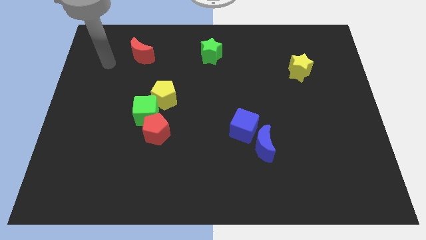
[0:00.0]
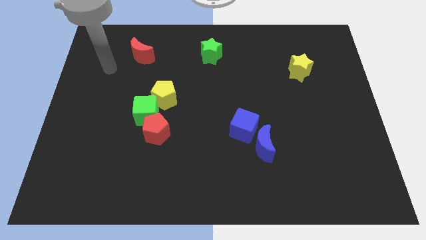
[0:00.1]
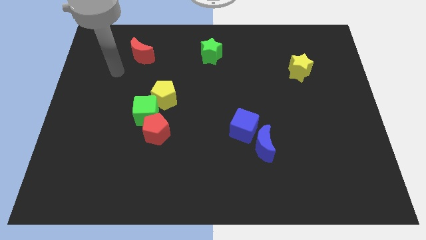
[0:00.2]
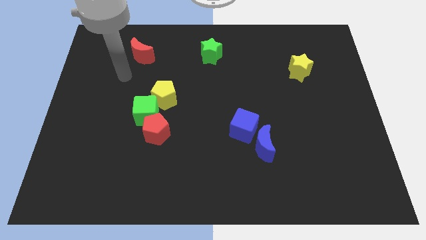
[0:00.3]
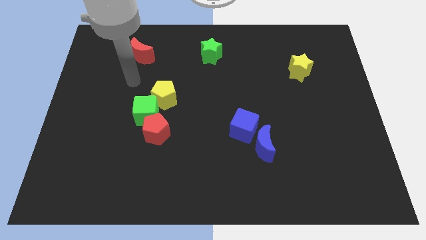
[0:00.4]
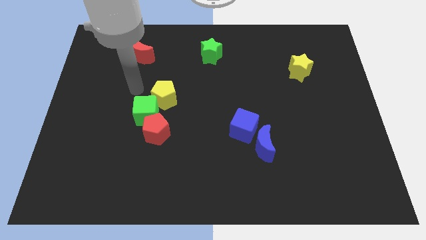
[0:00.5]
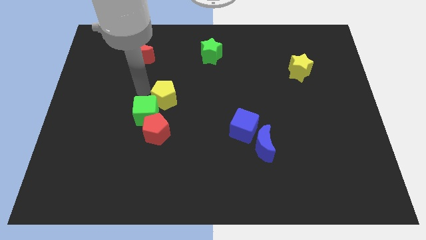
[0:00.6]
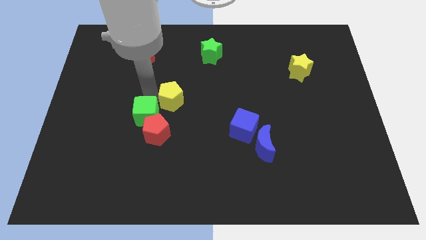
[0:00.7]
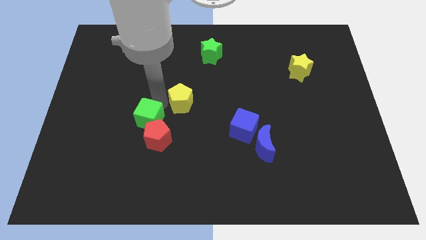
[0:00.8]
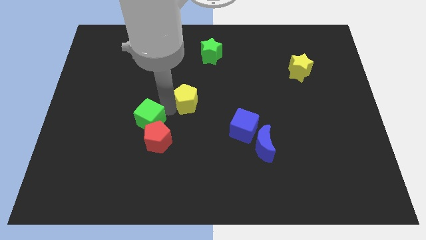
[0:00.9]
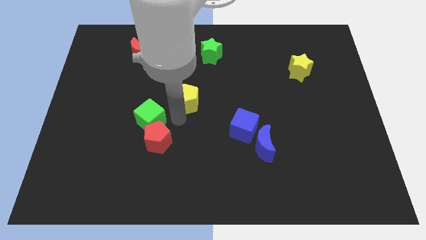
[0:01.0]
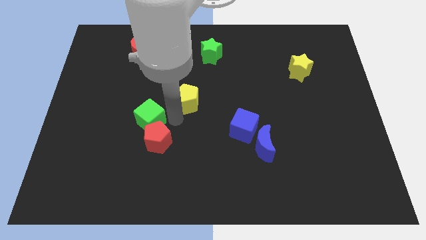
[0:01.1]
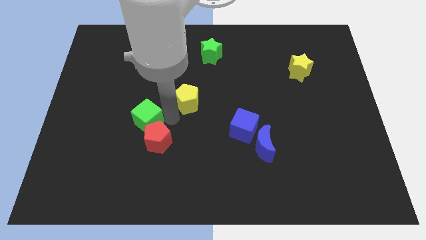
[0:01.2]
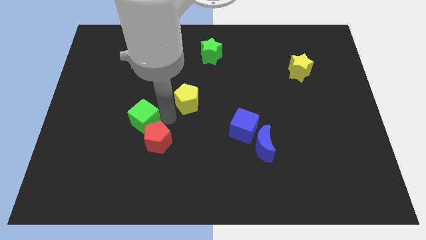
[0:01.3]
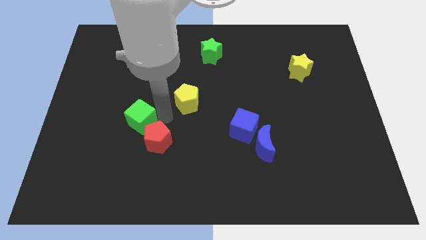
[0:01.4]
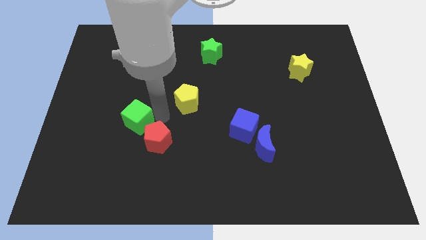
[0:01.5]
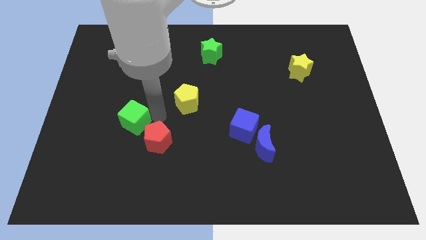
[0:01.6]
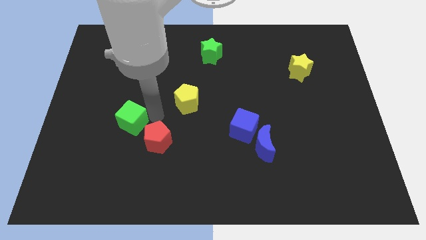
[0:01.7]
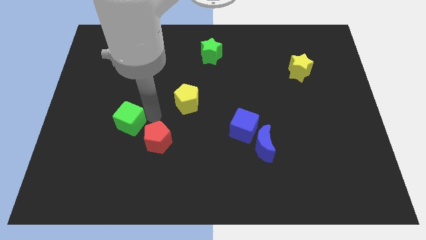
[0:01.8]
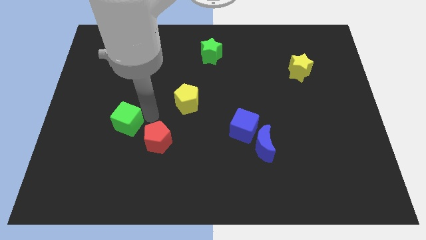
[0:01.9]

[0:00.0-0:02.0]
separate the green cube from the red pentagon and yellow pentagon

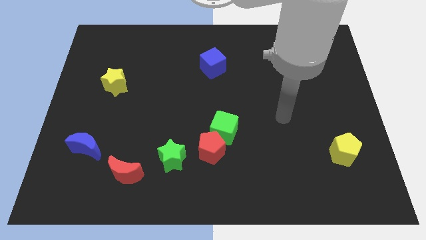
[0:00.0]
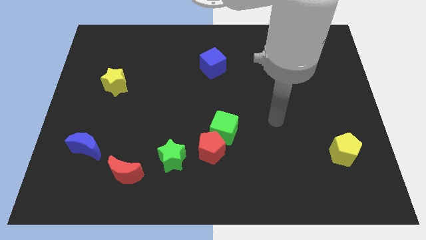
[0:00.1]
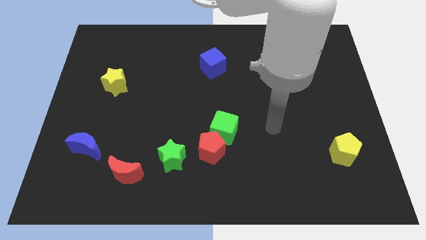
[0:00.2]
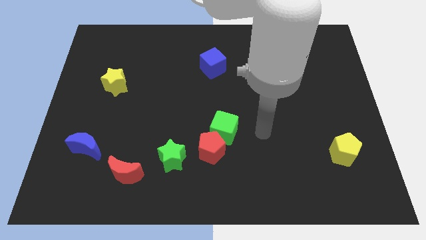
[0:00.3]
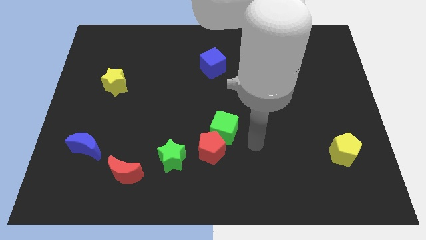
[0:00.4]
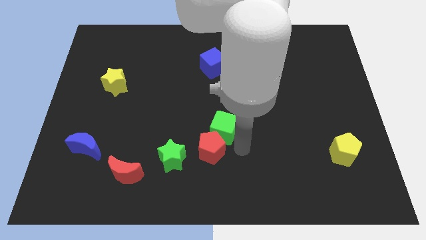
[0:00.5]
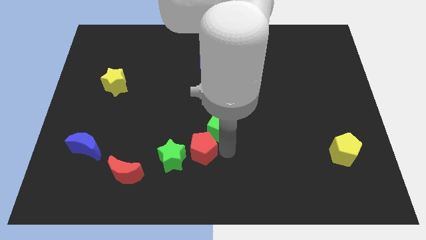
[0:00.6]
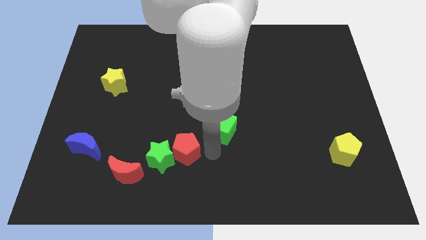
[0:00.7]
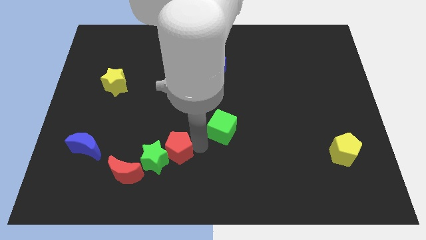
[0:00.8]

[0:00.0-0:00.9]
pull the green cube apart from the red pentagon

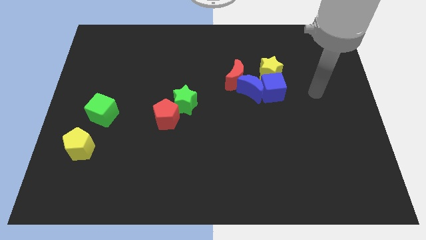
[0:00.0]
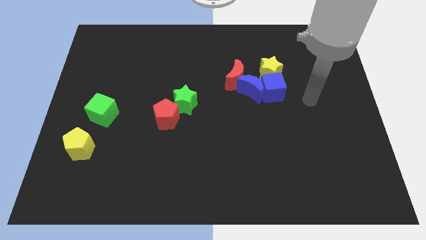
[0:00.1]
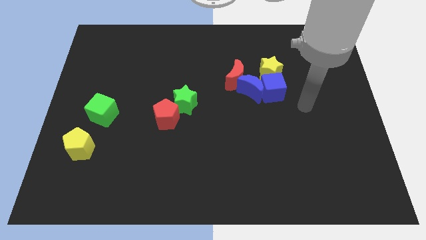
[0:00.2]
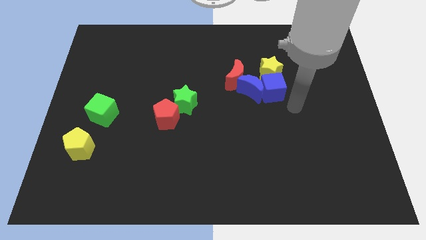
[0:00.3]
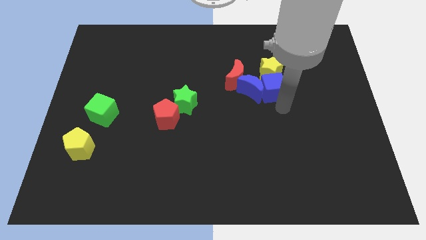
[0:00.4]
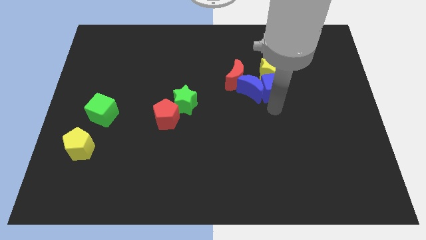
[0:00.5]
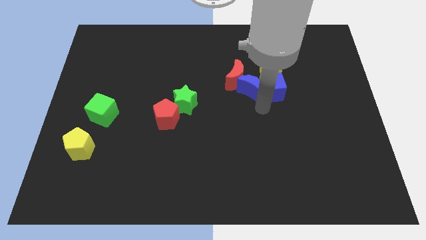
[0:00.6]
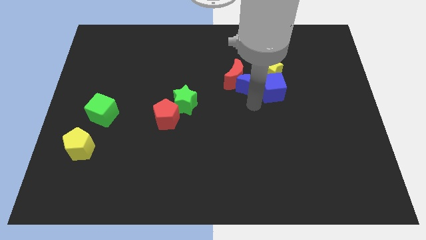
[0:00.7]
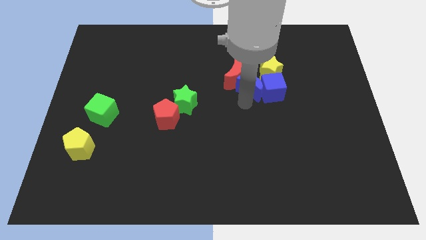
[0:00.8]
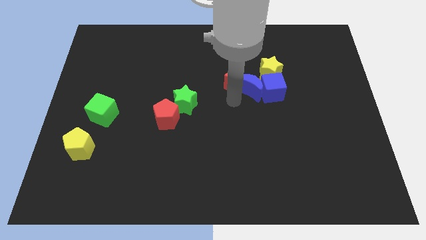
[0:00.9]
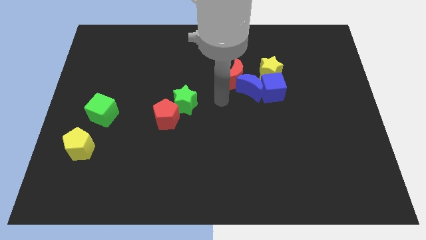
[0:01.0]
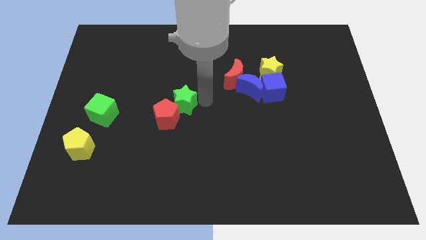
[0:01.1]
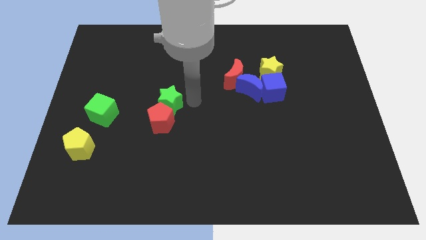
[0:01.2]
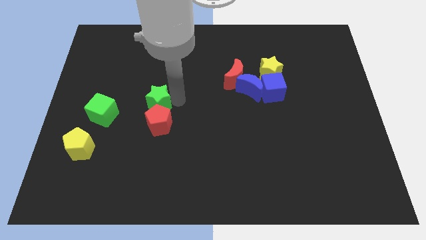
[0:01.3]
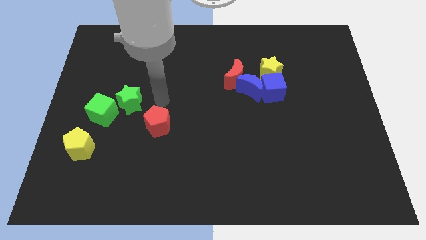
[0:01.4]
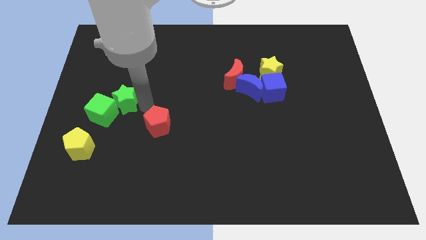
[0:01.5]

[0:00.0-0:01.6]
pull the red pentagon apart from the green star

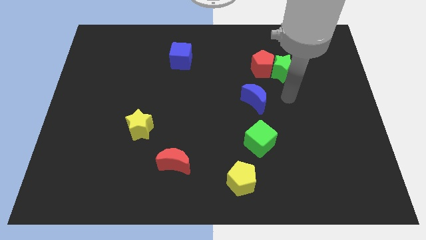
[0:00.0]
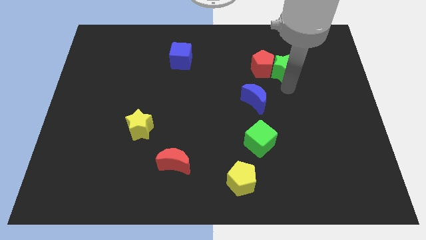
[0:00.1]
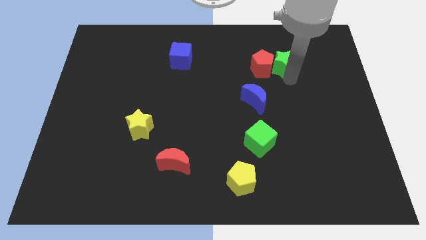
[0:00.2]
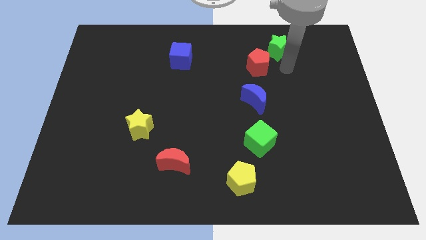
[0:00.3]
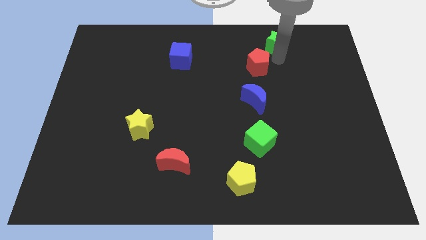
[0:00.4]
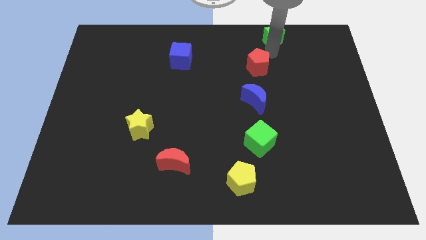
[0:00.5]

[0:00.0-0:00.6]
separate the red pentagon from the green star

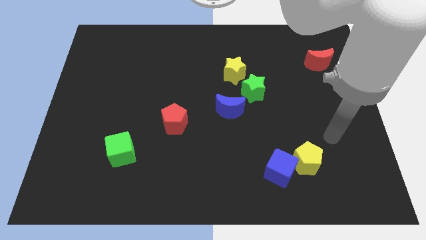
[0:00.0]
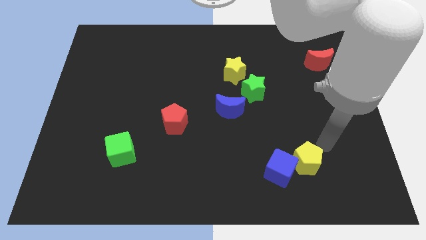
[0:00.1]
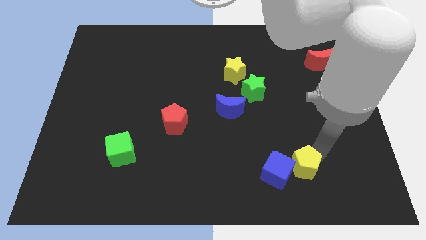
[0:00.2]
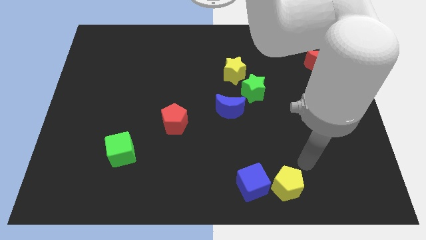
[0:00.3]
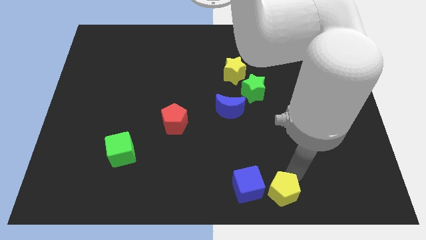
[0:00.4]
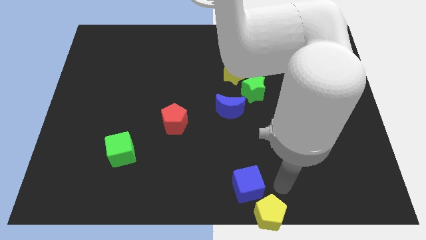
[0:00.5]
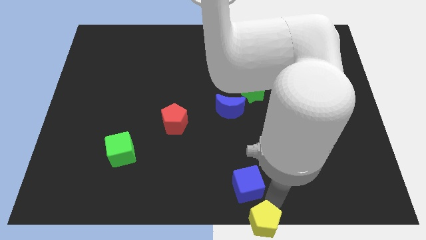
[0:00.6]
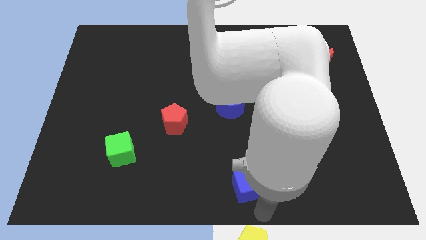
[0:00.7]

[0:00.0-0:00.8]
pull the blue cube apart from the yellow pentagon

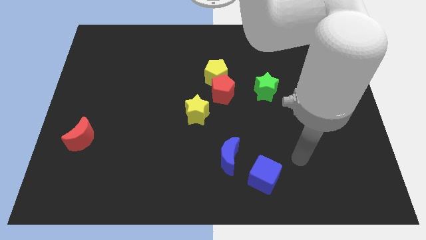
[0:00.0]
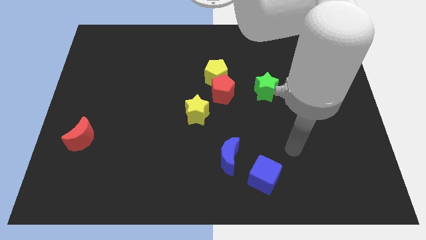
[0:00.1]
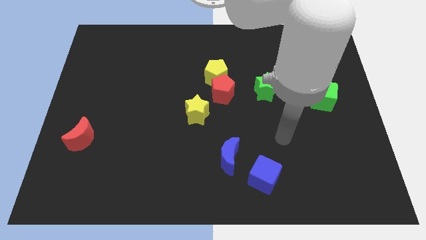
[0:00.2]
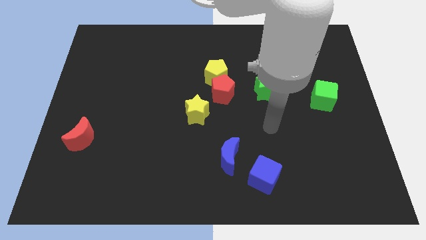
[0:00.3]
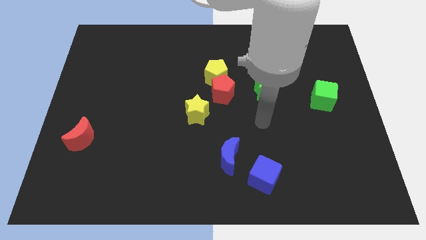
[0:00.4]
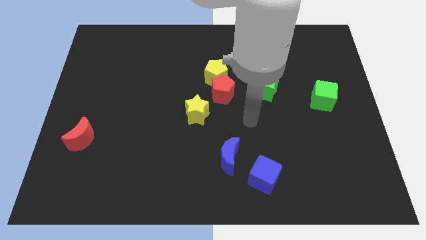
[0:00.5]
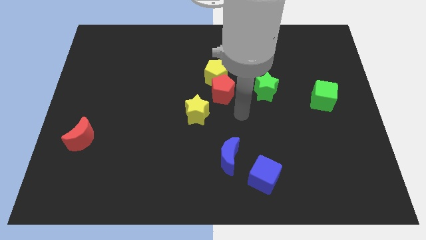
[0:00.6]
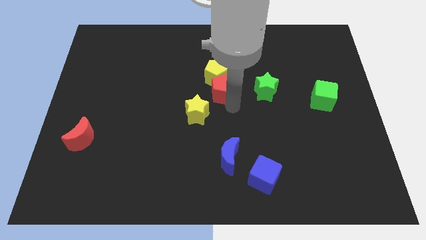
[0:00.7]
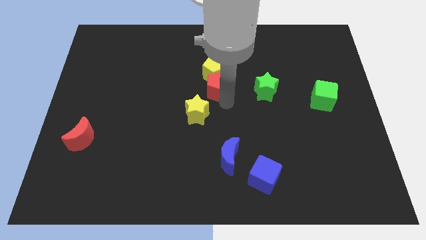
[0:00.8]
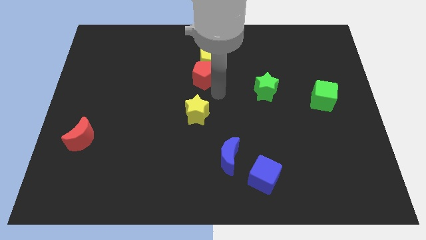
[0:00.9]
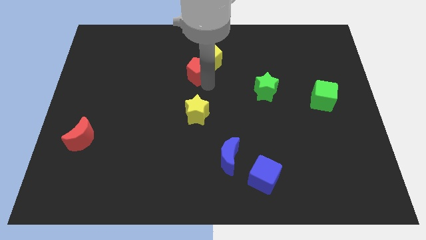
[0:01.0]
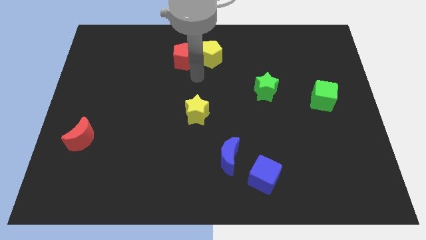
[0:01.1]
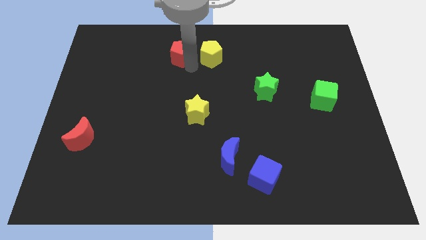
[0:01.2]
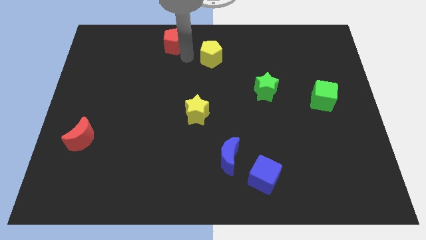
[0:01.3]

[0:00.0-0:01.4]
separate the yellow pentagon from the red pentagon

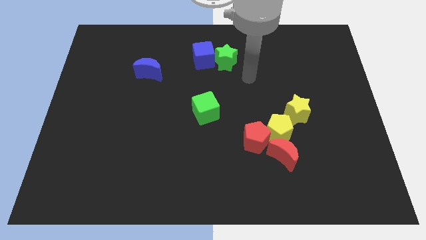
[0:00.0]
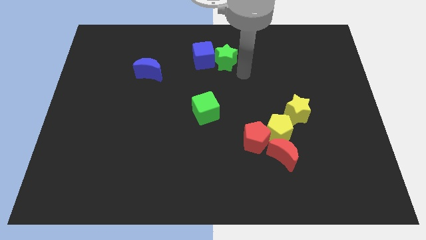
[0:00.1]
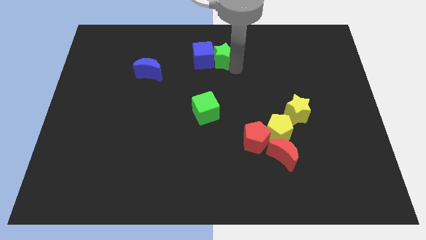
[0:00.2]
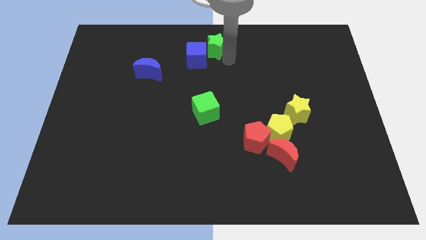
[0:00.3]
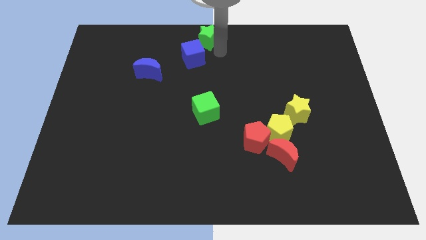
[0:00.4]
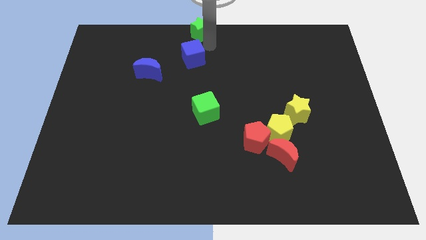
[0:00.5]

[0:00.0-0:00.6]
separate the blue cube from the green star

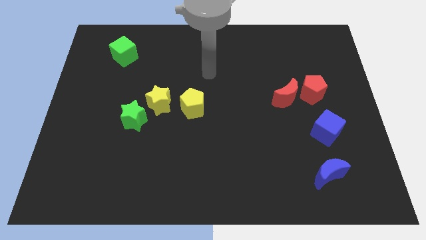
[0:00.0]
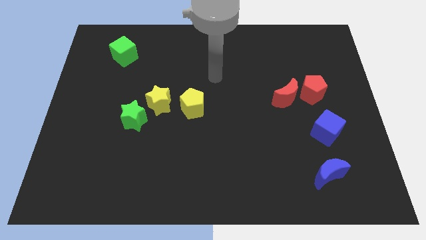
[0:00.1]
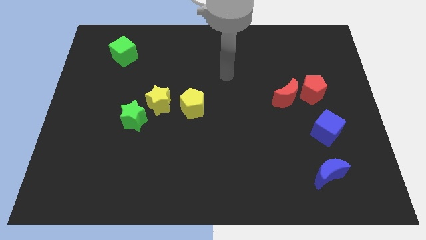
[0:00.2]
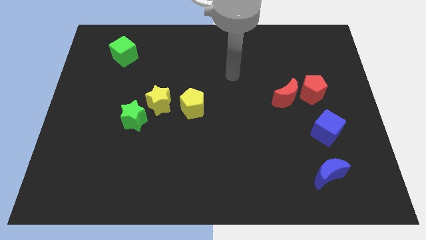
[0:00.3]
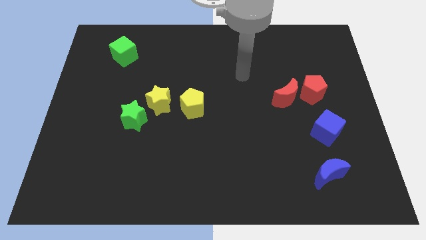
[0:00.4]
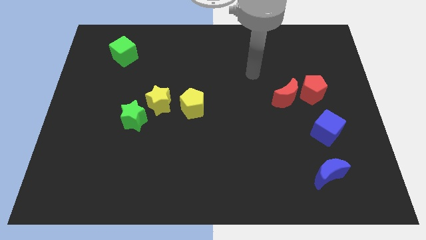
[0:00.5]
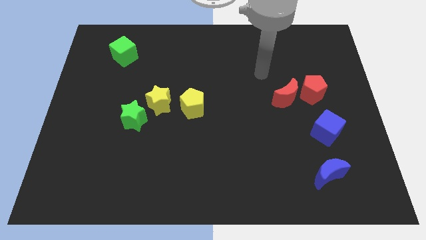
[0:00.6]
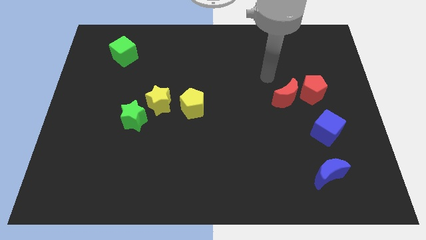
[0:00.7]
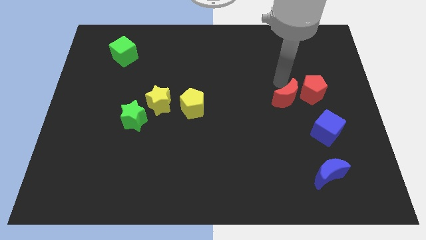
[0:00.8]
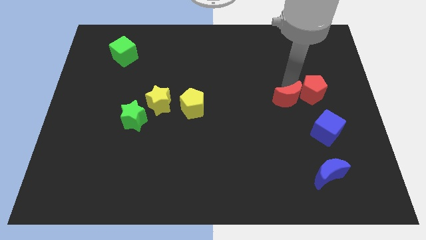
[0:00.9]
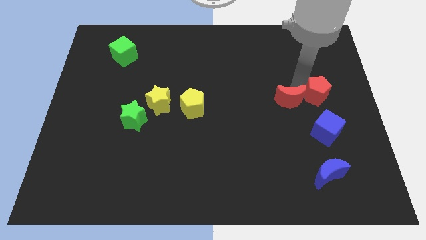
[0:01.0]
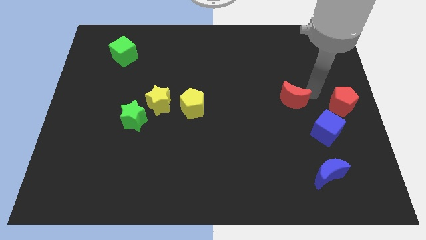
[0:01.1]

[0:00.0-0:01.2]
separate the red moon from the red pentagon

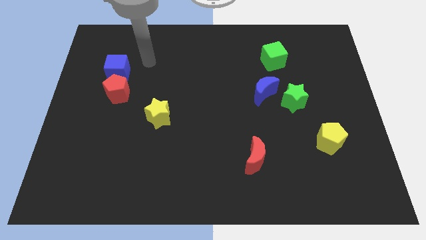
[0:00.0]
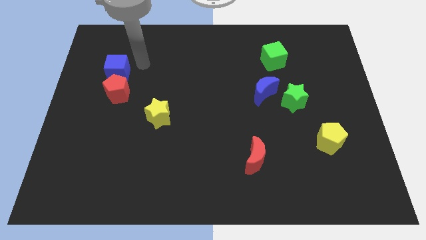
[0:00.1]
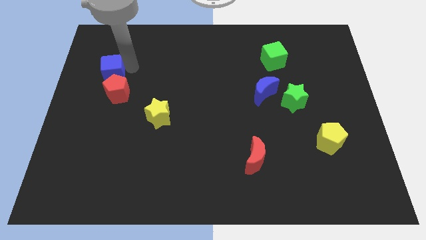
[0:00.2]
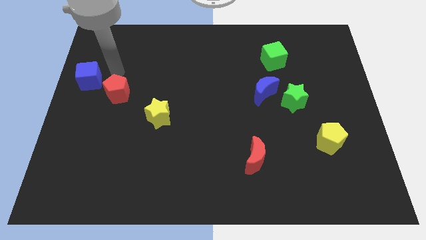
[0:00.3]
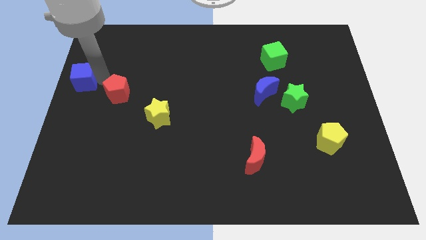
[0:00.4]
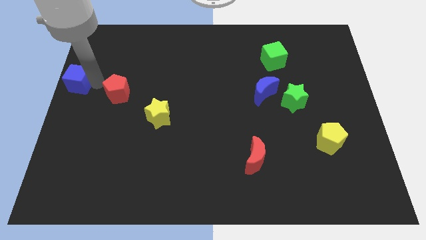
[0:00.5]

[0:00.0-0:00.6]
move the red pentagon away from the blue cube
